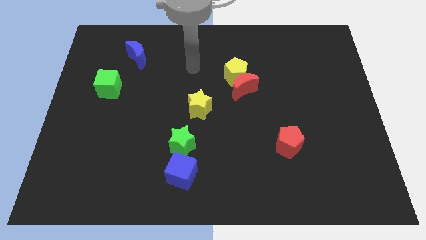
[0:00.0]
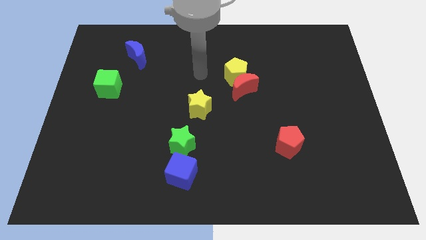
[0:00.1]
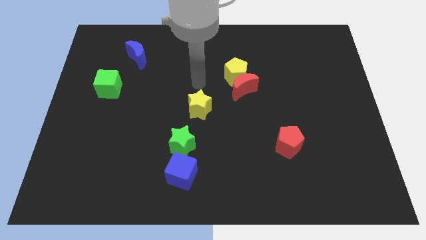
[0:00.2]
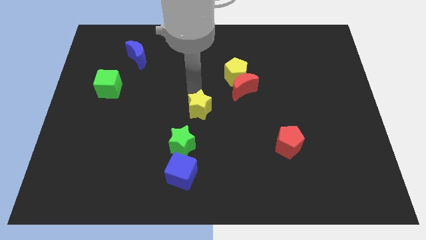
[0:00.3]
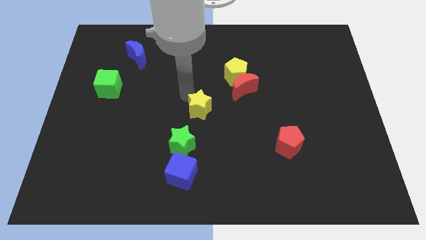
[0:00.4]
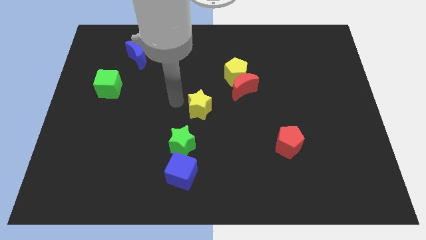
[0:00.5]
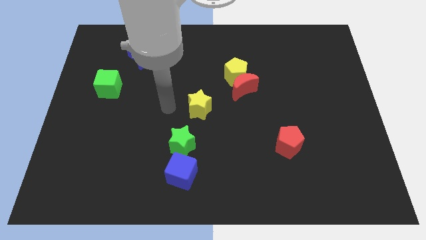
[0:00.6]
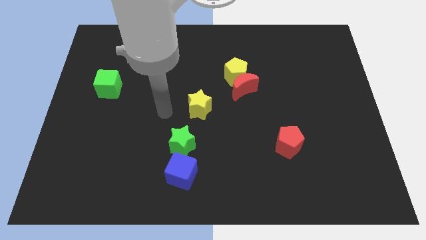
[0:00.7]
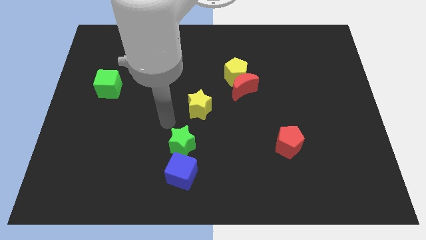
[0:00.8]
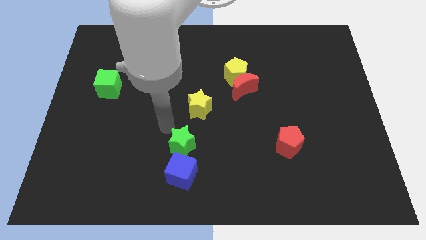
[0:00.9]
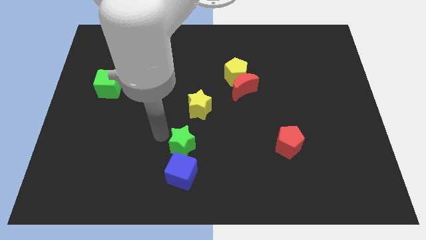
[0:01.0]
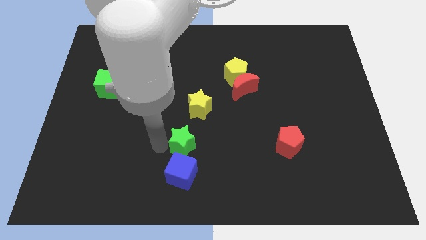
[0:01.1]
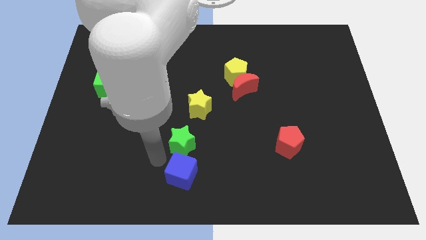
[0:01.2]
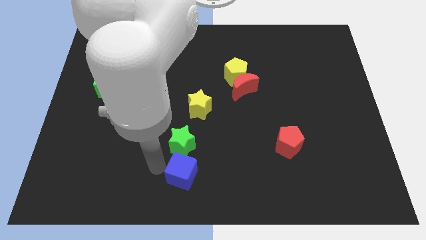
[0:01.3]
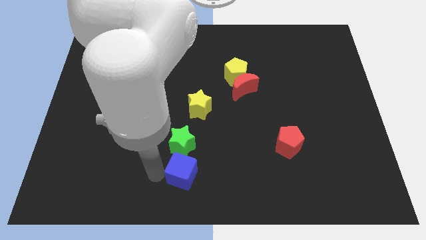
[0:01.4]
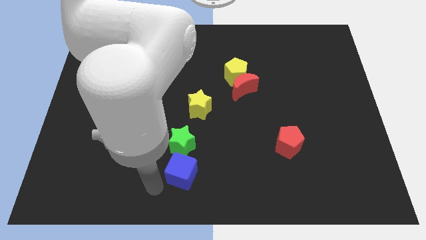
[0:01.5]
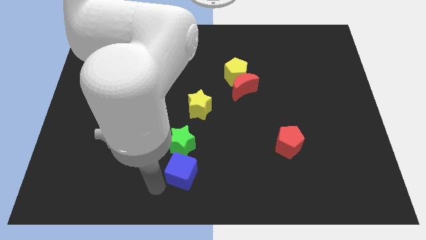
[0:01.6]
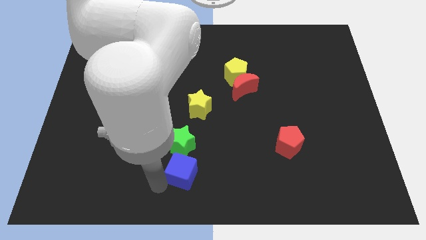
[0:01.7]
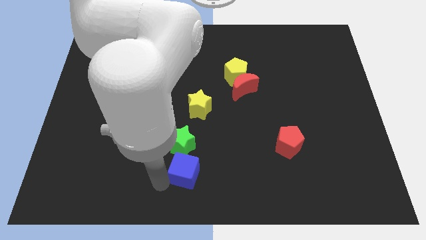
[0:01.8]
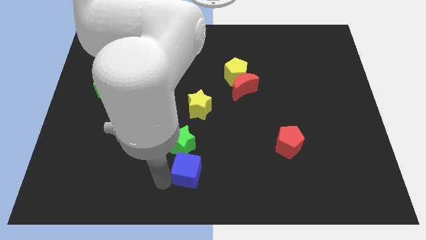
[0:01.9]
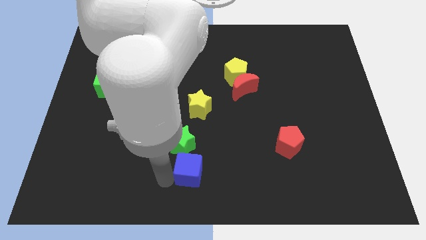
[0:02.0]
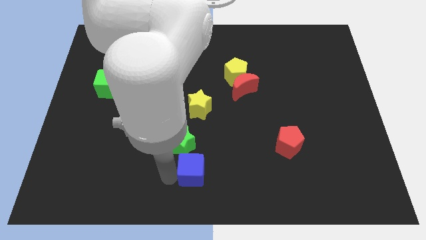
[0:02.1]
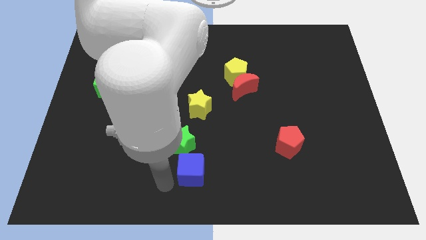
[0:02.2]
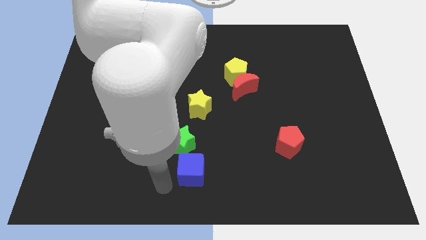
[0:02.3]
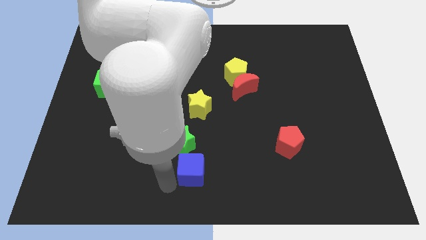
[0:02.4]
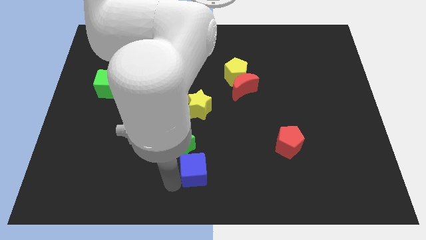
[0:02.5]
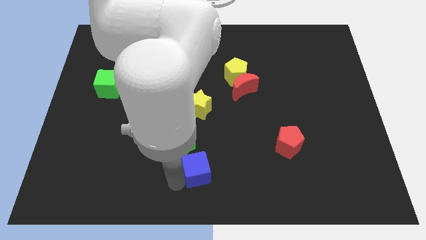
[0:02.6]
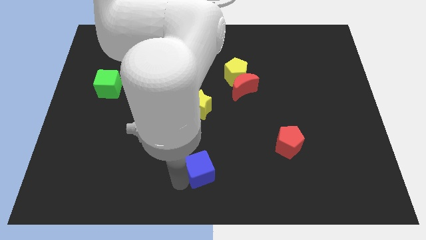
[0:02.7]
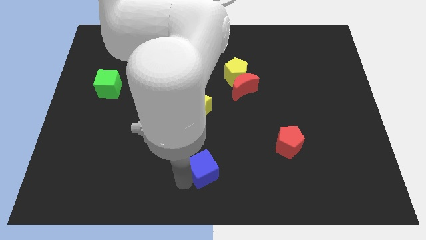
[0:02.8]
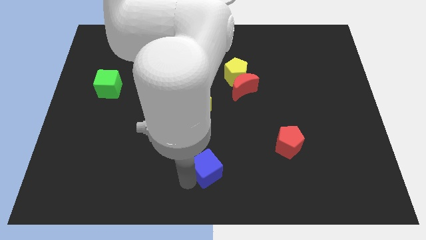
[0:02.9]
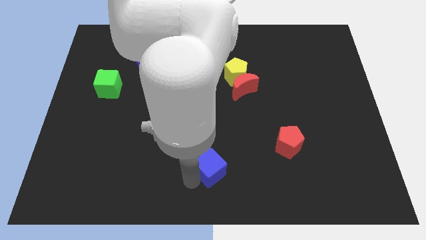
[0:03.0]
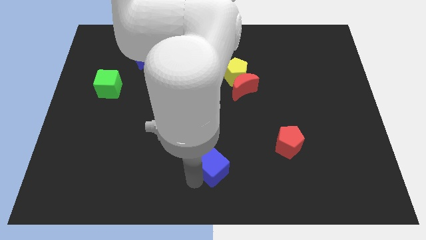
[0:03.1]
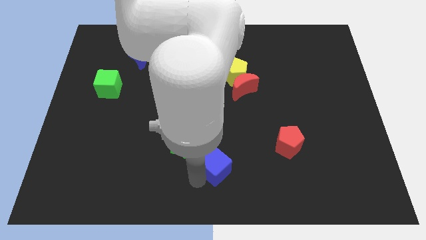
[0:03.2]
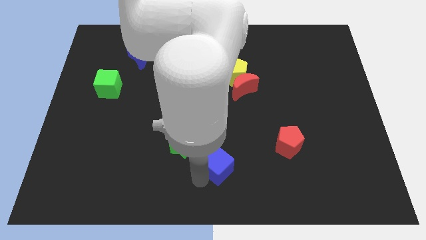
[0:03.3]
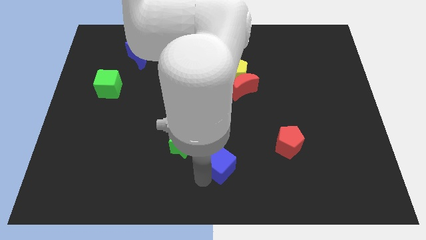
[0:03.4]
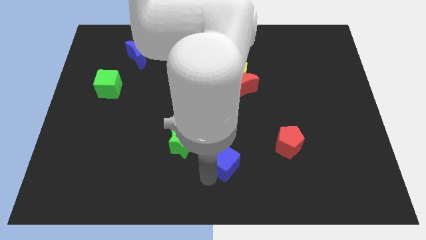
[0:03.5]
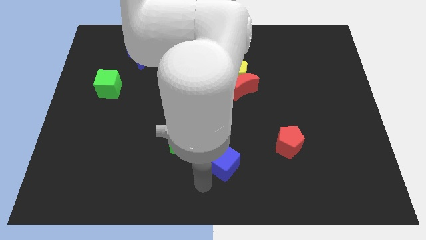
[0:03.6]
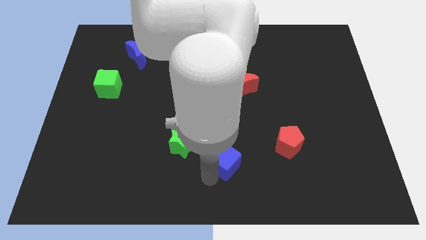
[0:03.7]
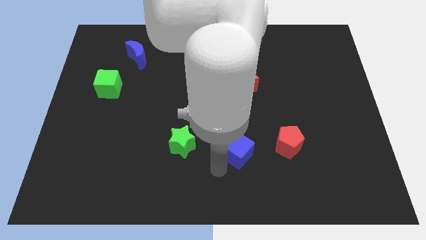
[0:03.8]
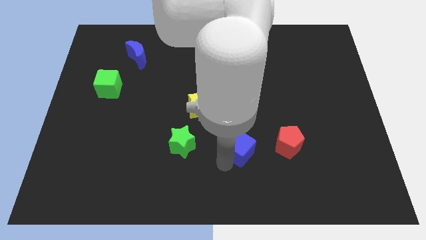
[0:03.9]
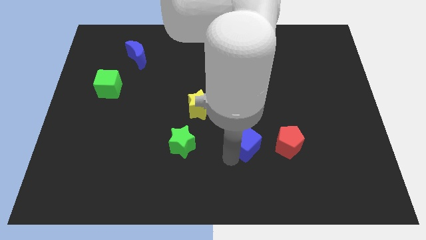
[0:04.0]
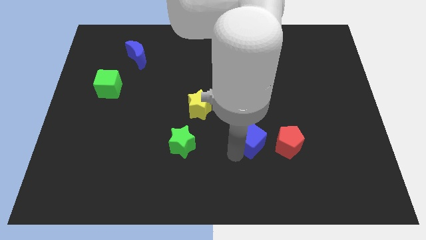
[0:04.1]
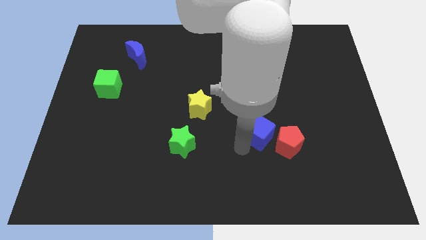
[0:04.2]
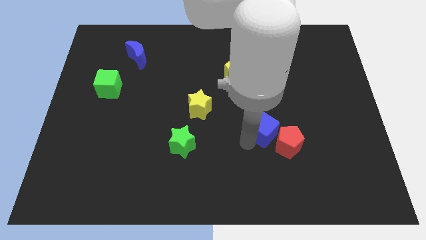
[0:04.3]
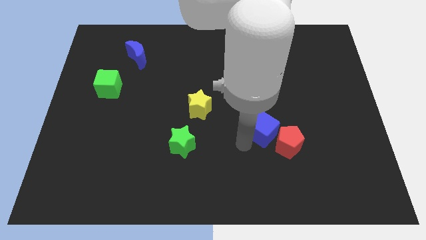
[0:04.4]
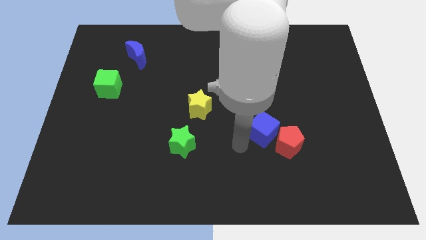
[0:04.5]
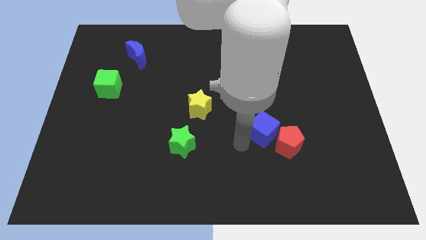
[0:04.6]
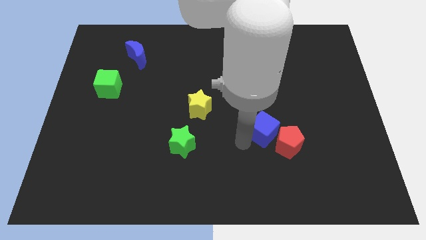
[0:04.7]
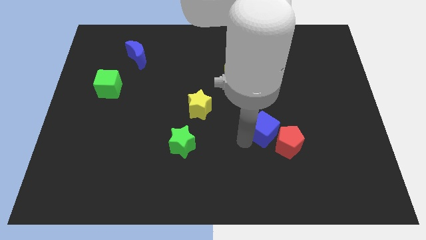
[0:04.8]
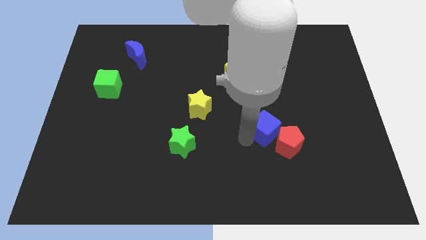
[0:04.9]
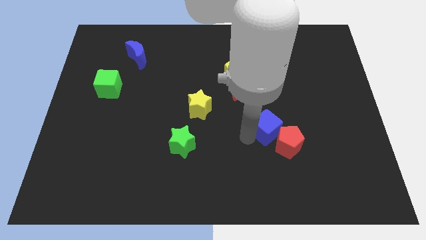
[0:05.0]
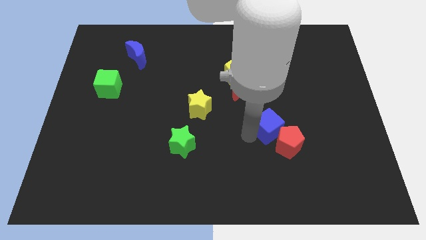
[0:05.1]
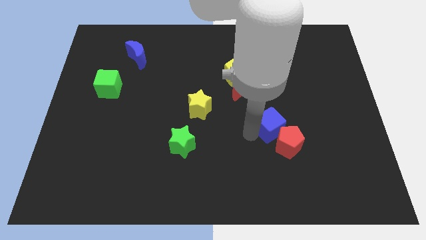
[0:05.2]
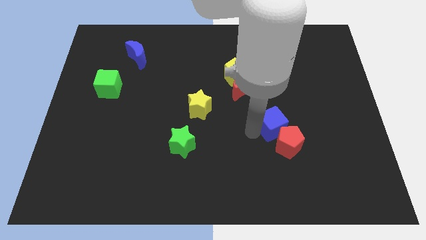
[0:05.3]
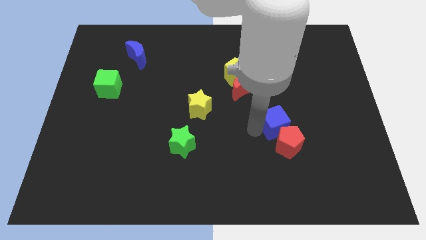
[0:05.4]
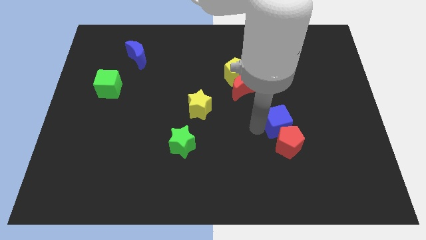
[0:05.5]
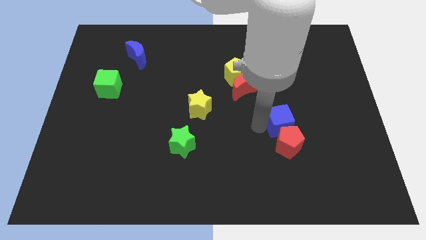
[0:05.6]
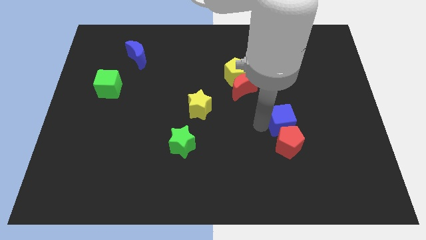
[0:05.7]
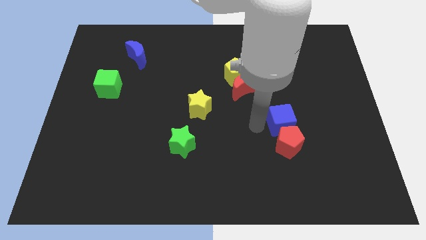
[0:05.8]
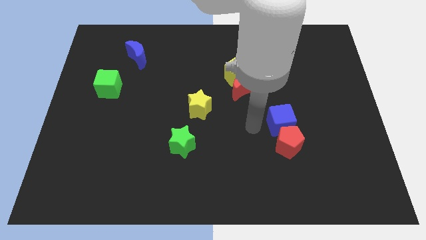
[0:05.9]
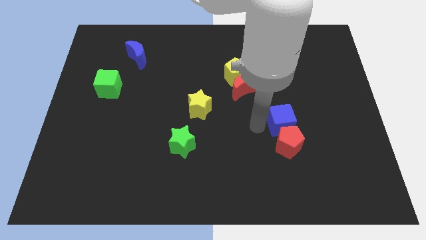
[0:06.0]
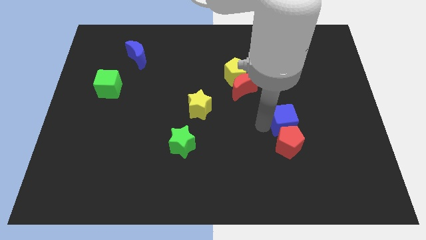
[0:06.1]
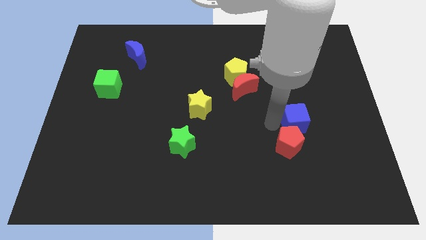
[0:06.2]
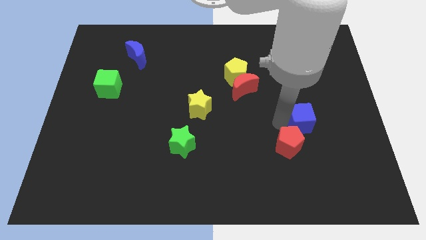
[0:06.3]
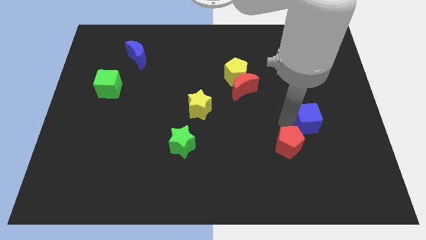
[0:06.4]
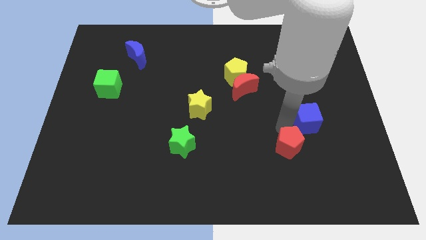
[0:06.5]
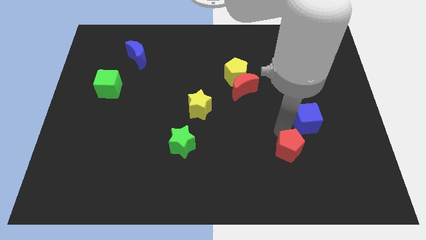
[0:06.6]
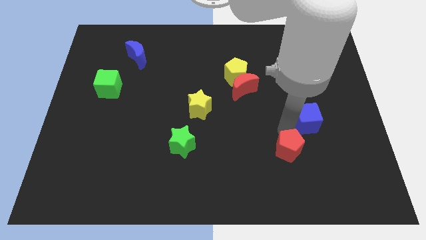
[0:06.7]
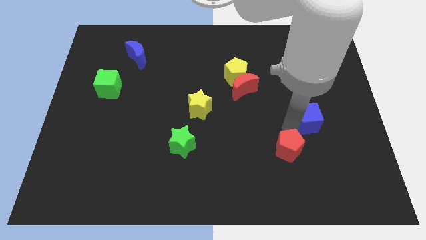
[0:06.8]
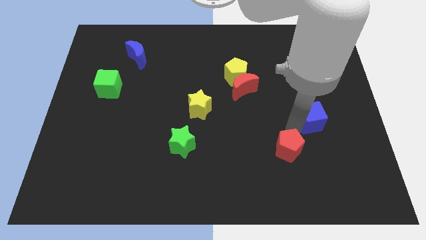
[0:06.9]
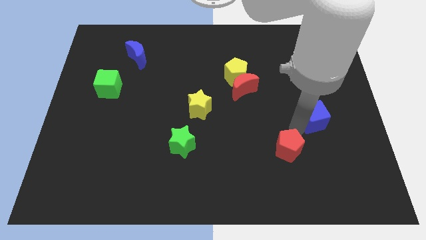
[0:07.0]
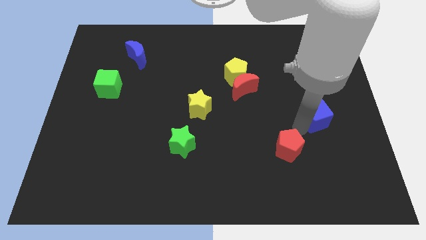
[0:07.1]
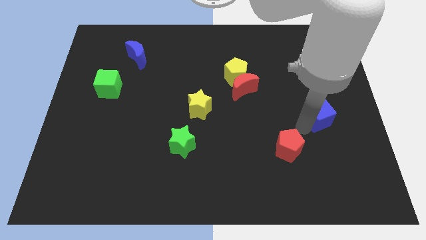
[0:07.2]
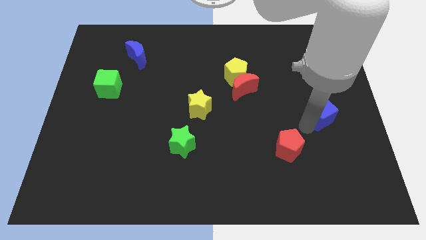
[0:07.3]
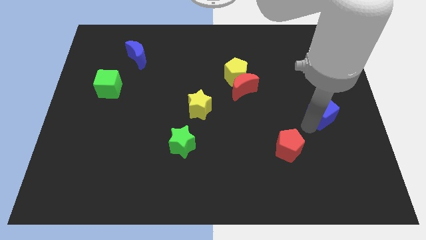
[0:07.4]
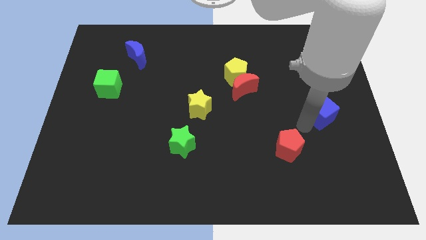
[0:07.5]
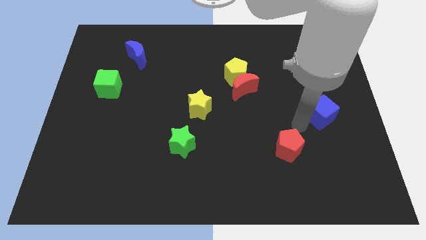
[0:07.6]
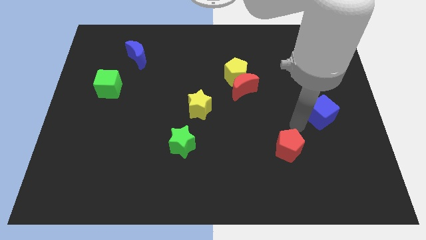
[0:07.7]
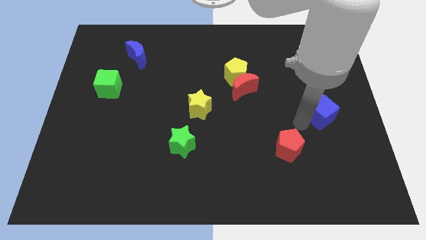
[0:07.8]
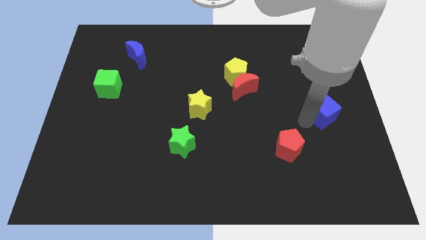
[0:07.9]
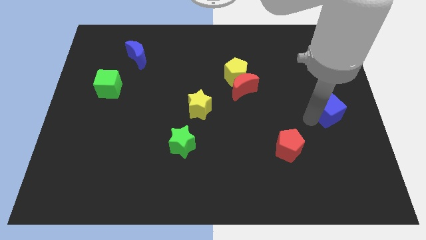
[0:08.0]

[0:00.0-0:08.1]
slide the blue cube to the right side
